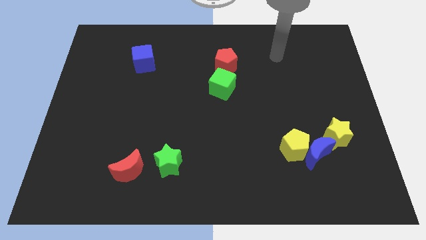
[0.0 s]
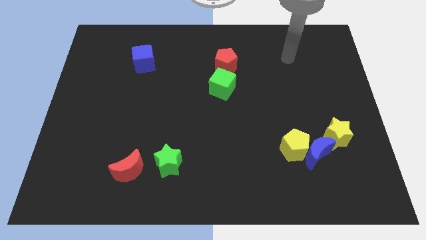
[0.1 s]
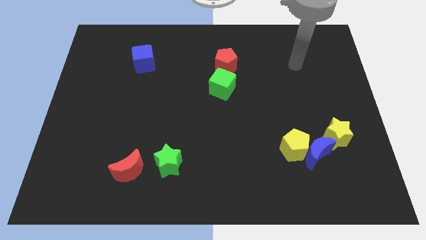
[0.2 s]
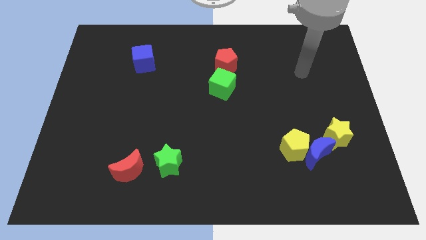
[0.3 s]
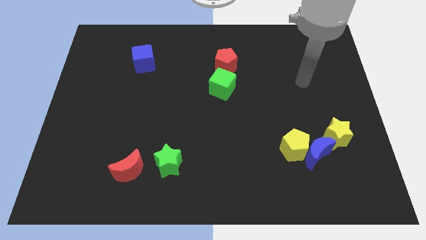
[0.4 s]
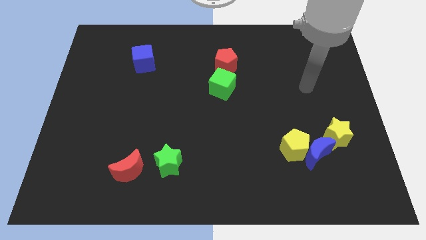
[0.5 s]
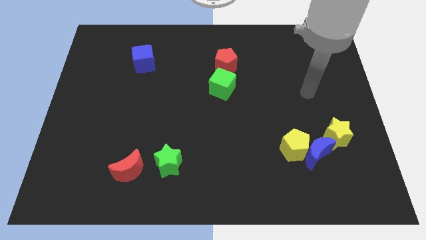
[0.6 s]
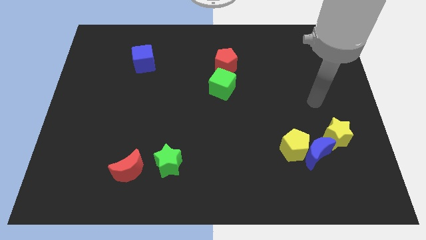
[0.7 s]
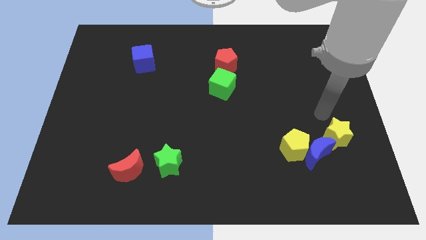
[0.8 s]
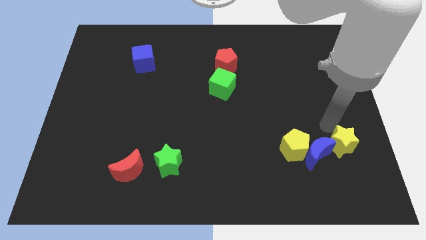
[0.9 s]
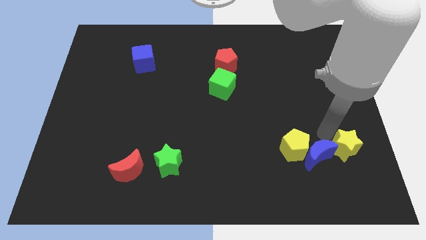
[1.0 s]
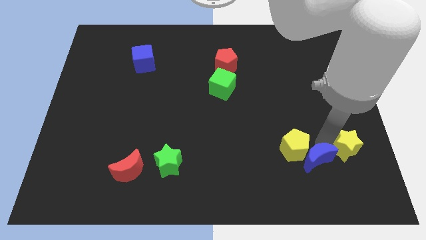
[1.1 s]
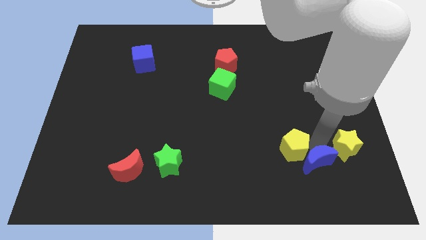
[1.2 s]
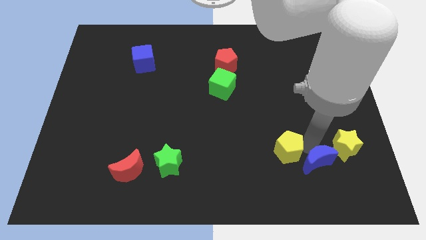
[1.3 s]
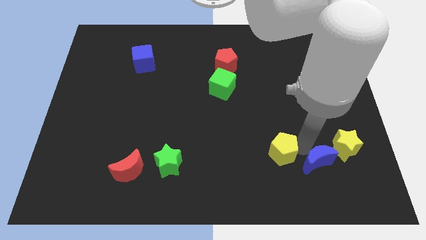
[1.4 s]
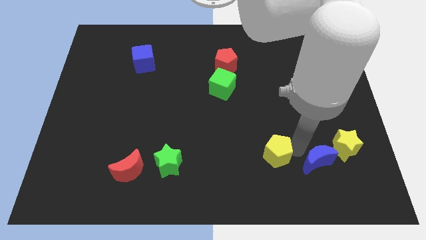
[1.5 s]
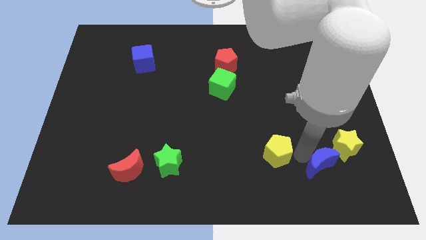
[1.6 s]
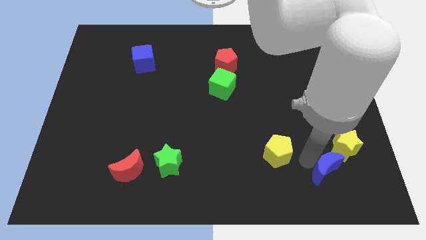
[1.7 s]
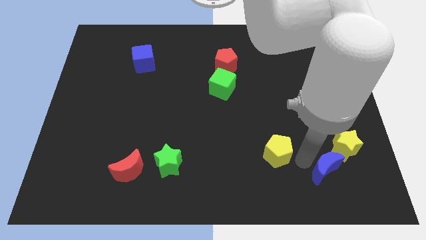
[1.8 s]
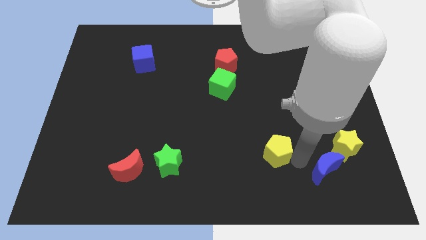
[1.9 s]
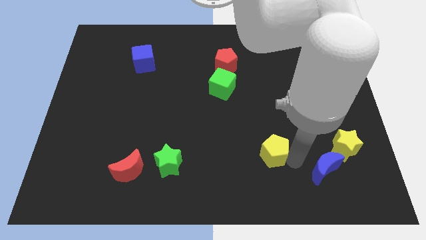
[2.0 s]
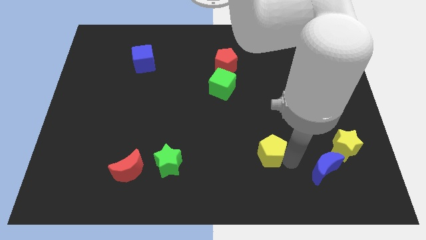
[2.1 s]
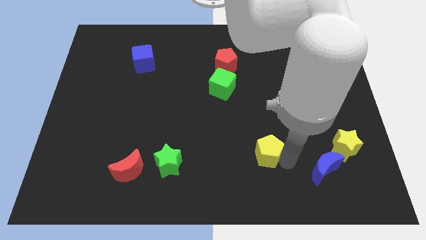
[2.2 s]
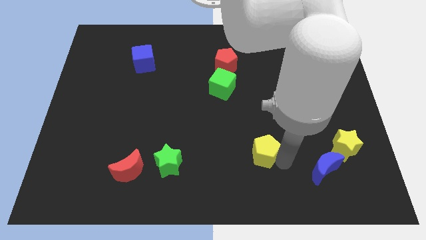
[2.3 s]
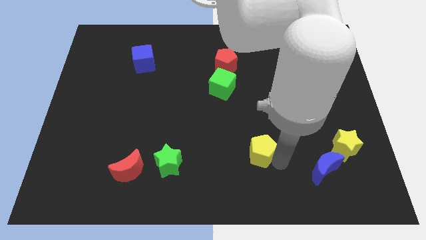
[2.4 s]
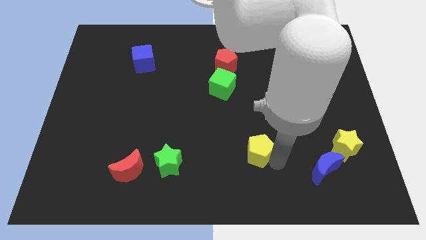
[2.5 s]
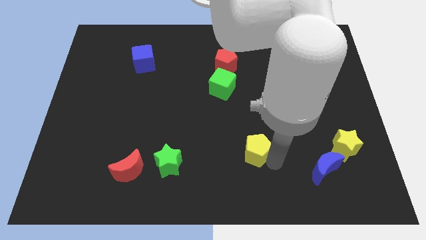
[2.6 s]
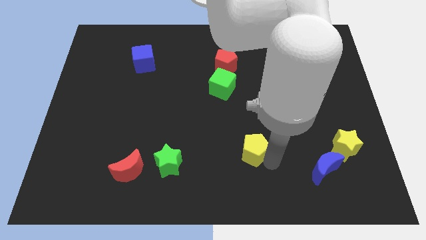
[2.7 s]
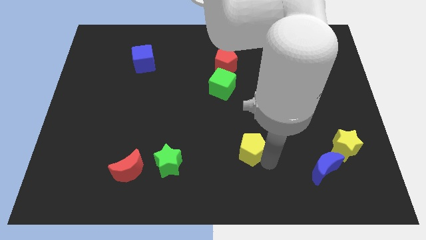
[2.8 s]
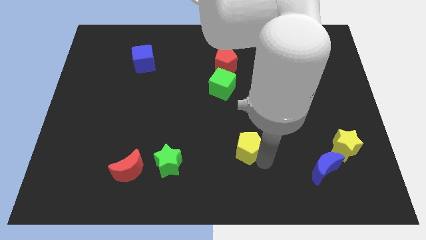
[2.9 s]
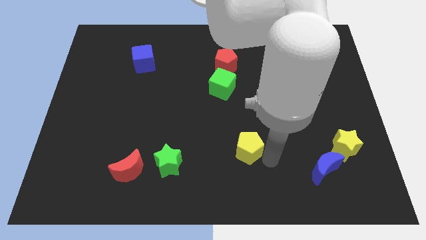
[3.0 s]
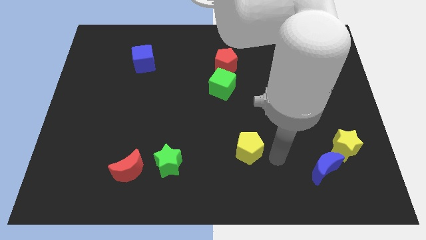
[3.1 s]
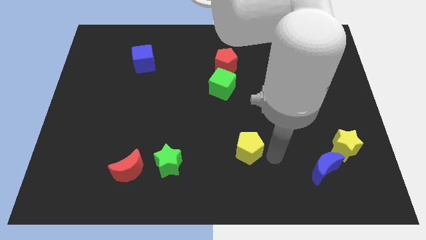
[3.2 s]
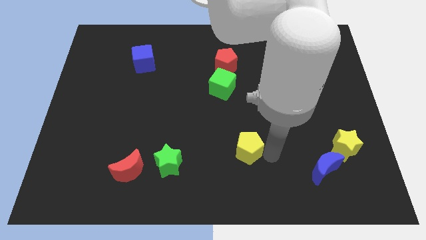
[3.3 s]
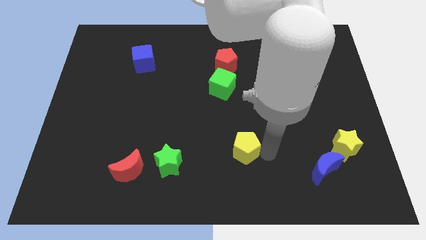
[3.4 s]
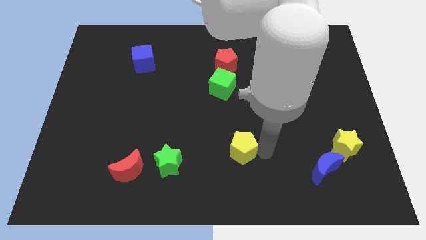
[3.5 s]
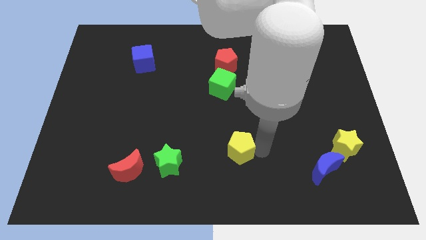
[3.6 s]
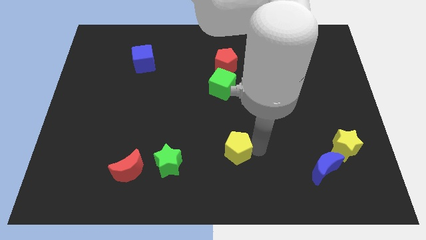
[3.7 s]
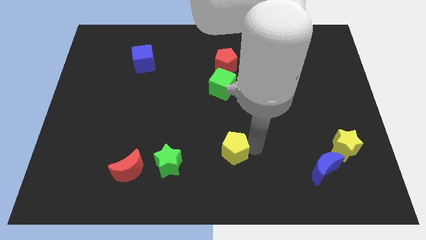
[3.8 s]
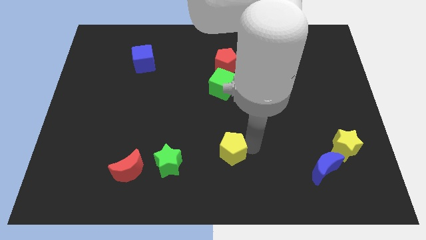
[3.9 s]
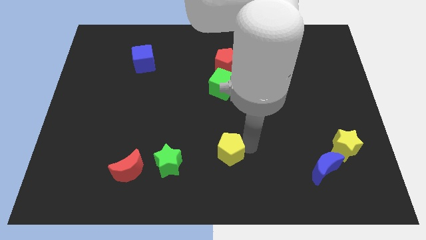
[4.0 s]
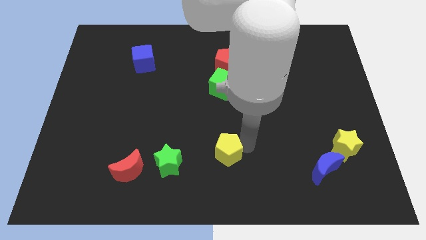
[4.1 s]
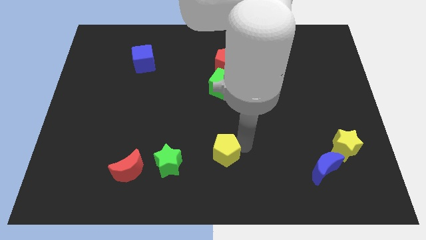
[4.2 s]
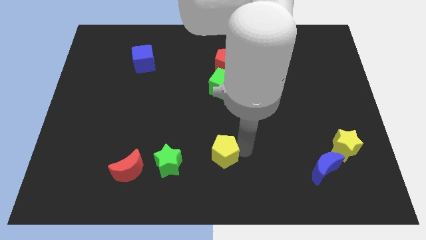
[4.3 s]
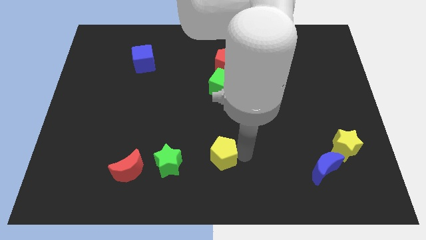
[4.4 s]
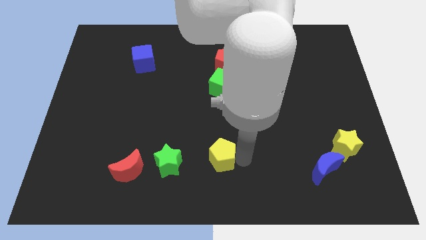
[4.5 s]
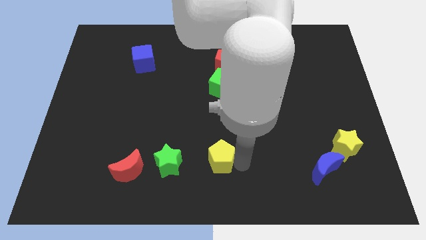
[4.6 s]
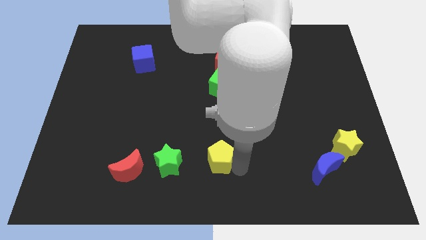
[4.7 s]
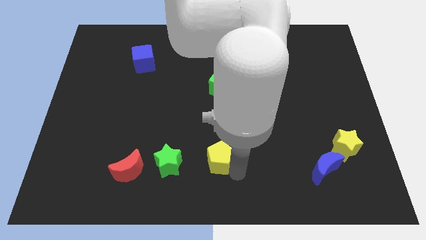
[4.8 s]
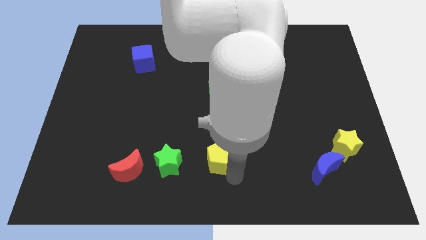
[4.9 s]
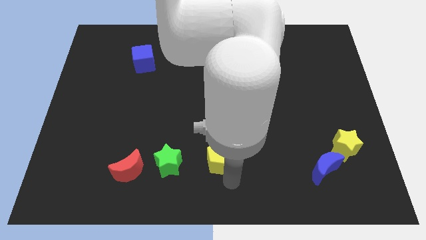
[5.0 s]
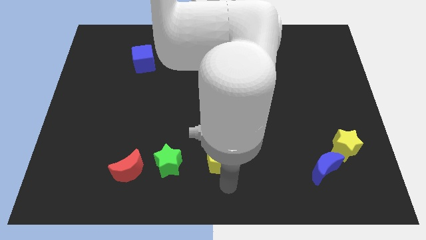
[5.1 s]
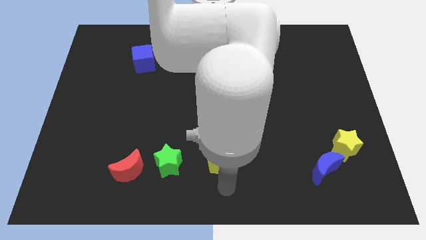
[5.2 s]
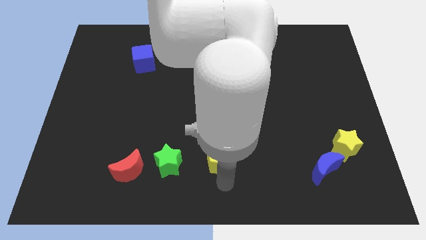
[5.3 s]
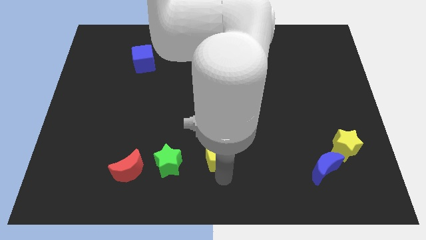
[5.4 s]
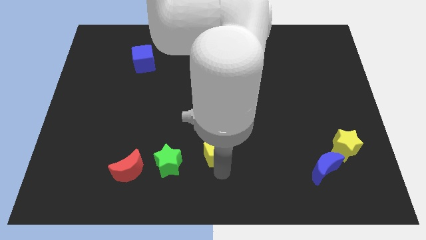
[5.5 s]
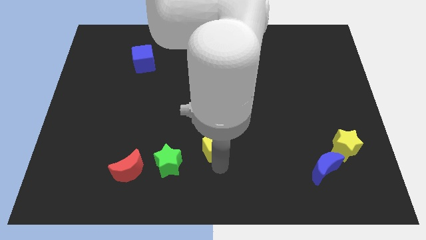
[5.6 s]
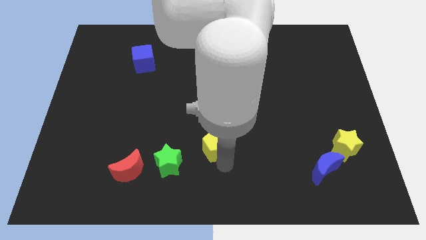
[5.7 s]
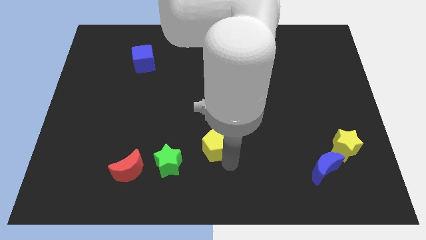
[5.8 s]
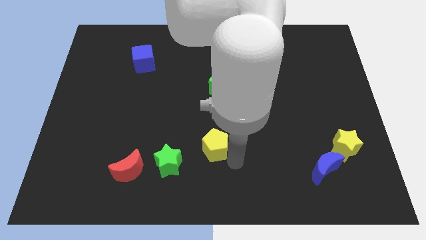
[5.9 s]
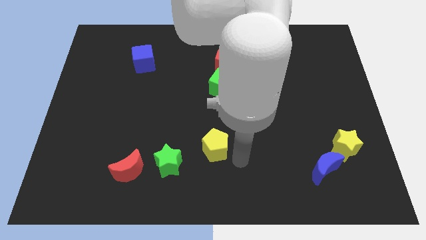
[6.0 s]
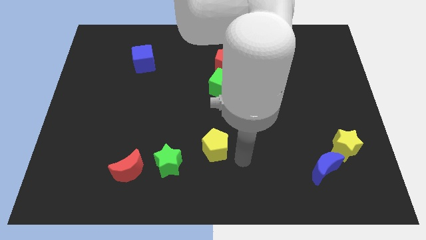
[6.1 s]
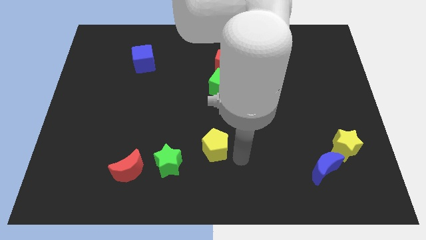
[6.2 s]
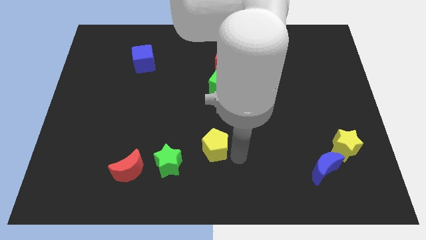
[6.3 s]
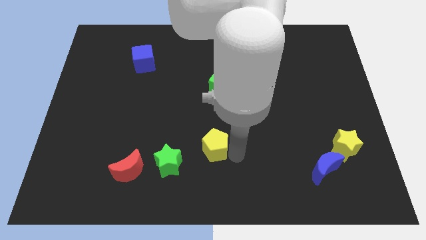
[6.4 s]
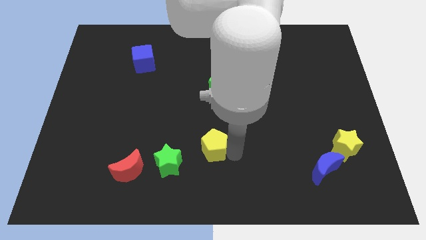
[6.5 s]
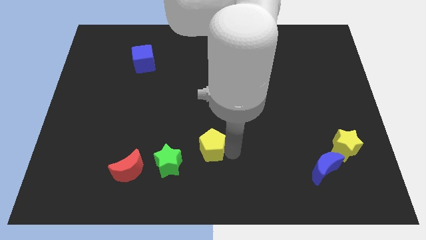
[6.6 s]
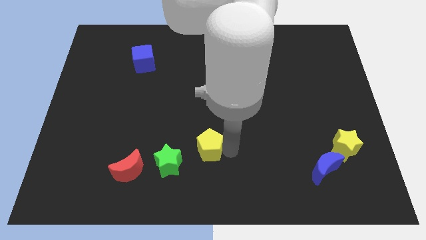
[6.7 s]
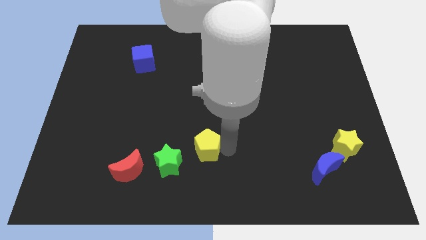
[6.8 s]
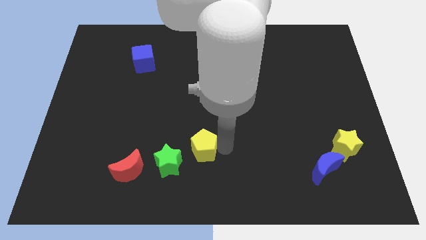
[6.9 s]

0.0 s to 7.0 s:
push the yellow pentagon left

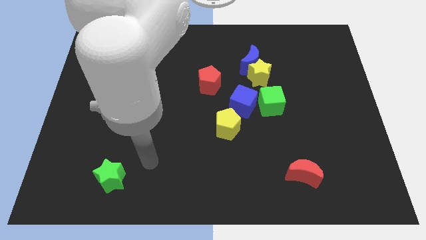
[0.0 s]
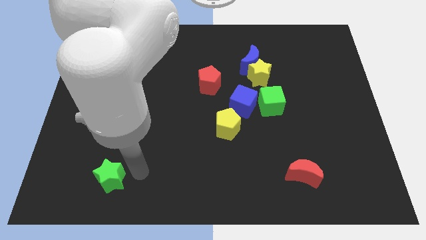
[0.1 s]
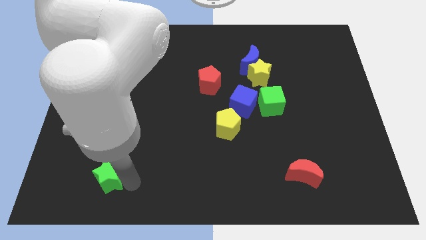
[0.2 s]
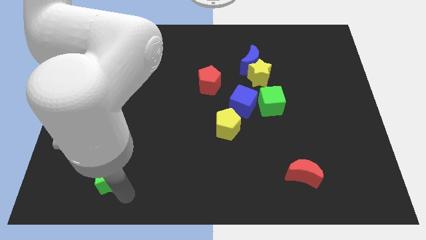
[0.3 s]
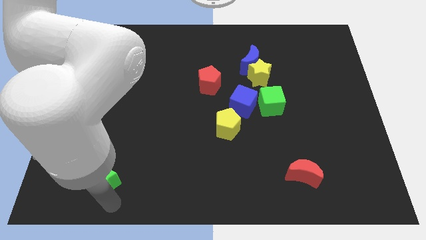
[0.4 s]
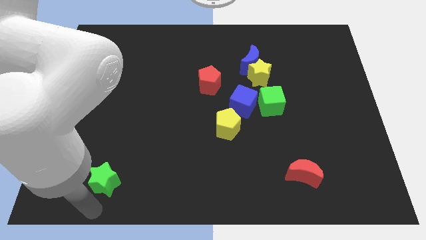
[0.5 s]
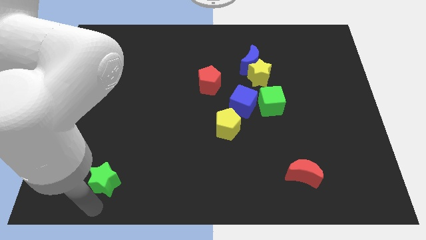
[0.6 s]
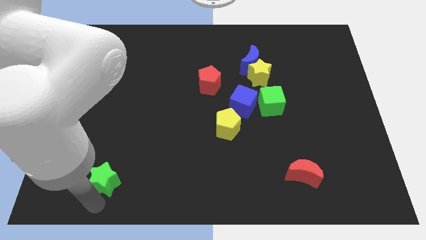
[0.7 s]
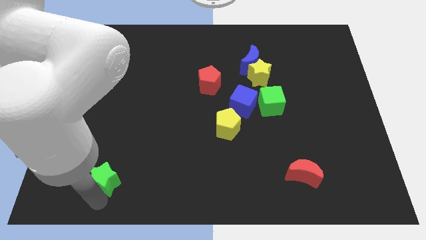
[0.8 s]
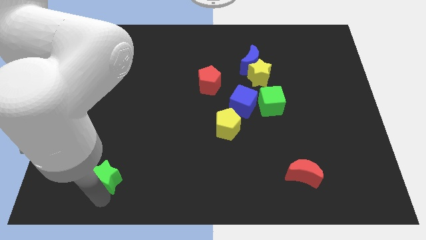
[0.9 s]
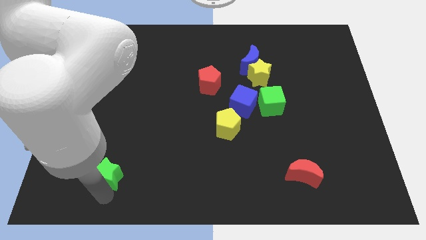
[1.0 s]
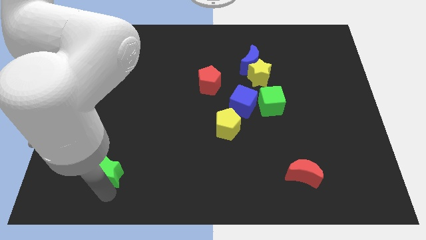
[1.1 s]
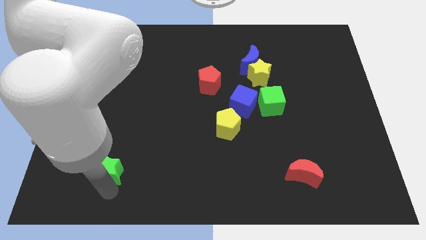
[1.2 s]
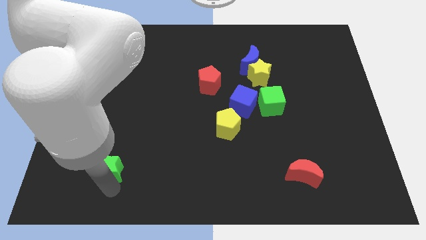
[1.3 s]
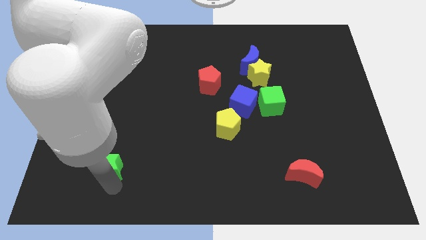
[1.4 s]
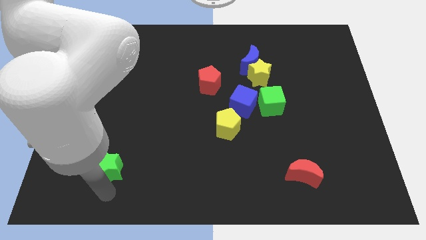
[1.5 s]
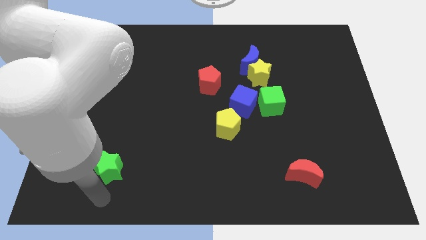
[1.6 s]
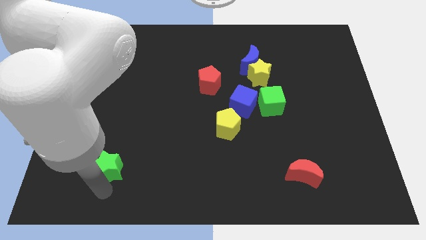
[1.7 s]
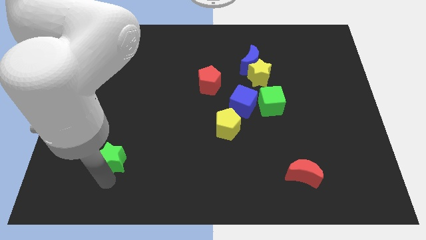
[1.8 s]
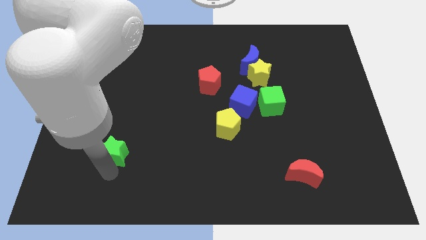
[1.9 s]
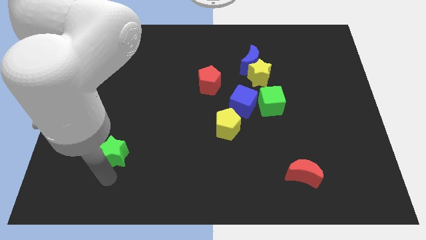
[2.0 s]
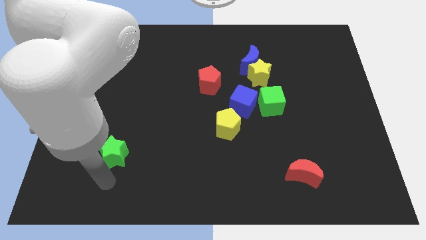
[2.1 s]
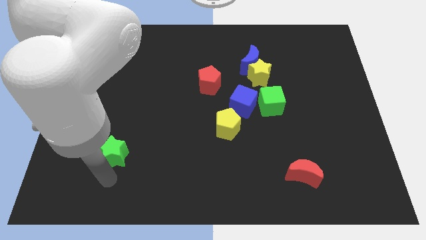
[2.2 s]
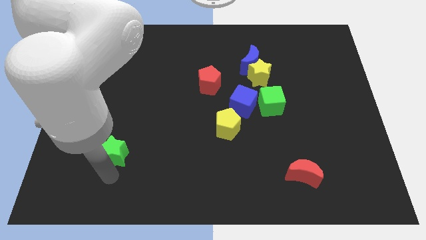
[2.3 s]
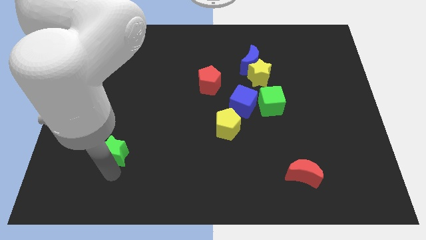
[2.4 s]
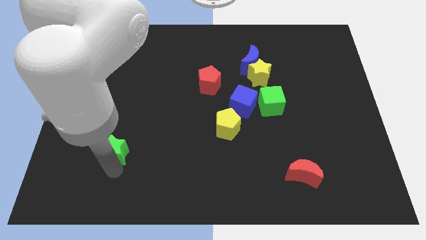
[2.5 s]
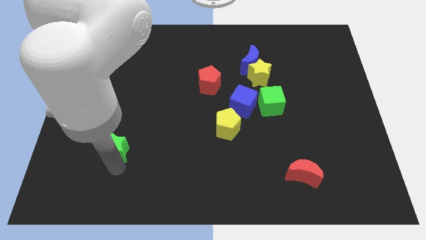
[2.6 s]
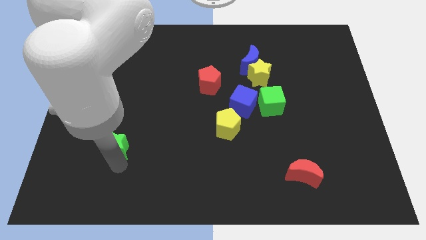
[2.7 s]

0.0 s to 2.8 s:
slide the green star slightly upwards
